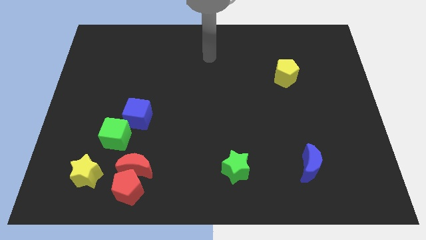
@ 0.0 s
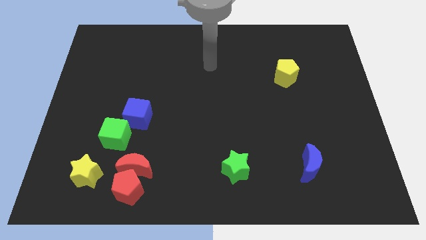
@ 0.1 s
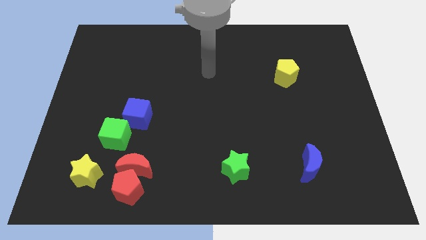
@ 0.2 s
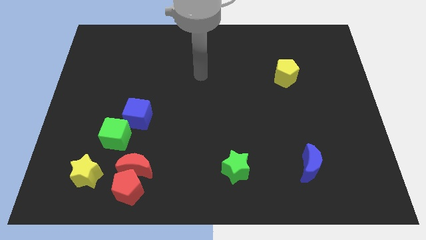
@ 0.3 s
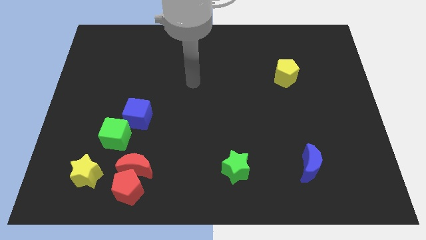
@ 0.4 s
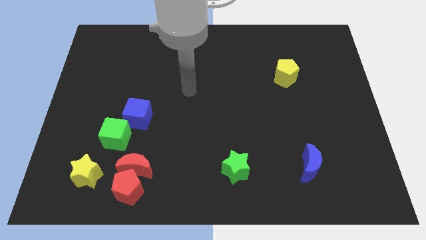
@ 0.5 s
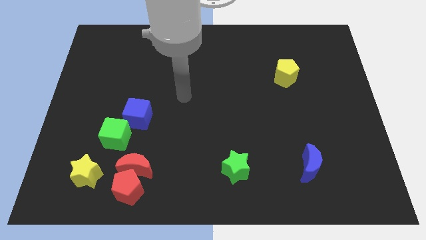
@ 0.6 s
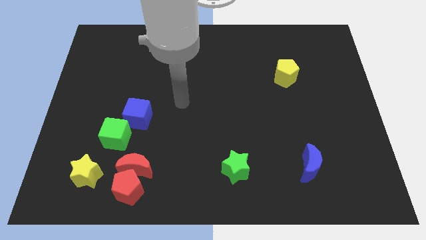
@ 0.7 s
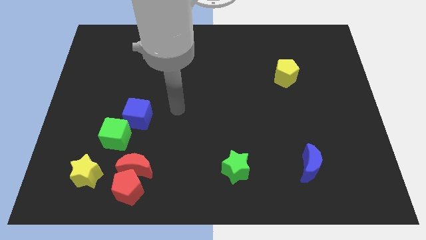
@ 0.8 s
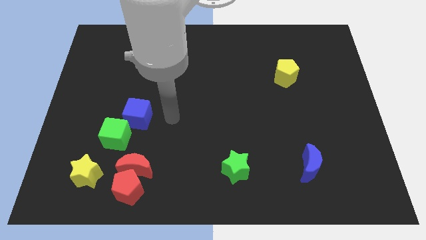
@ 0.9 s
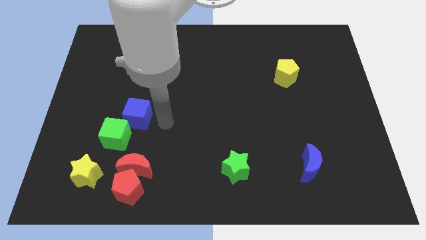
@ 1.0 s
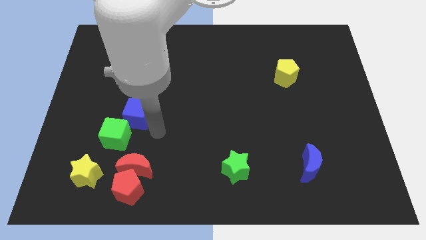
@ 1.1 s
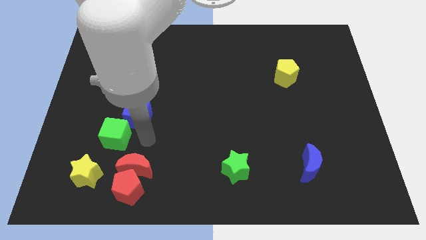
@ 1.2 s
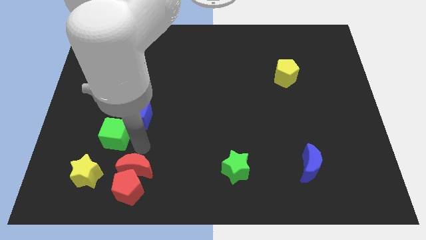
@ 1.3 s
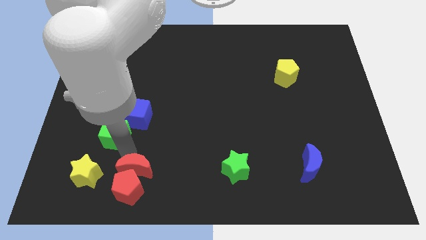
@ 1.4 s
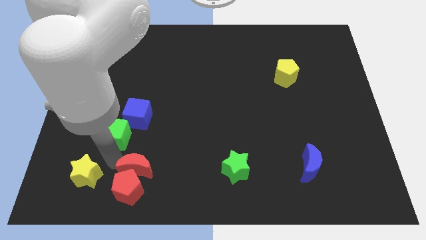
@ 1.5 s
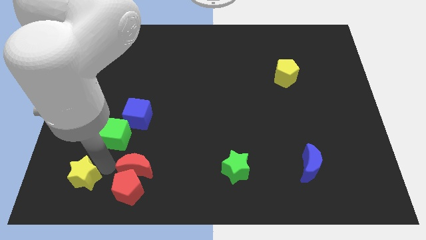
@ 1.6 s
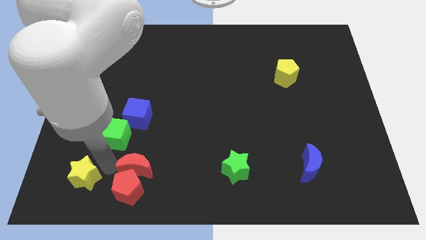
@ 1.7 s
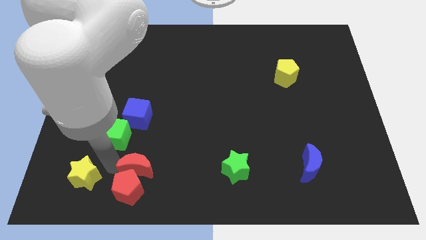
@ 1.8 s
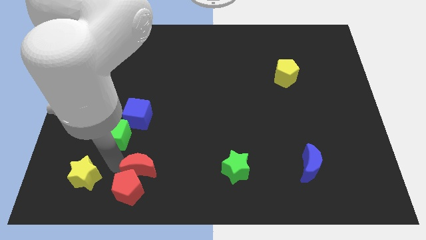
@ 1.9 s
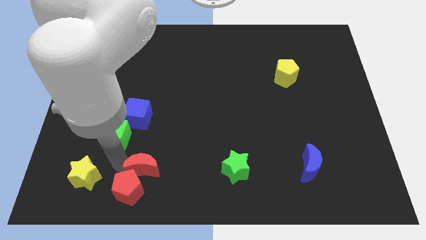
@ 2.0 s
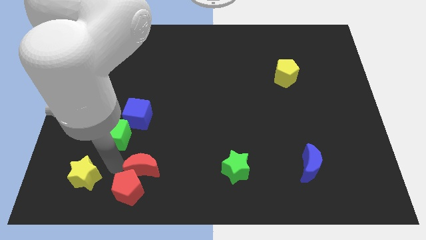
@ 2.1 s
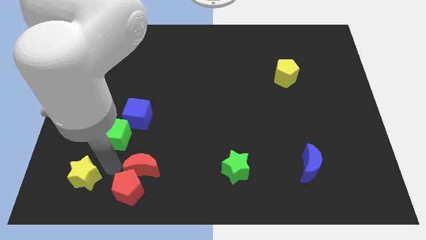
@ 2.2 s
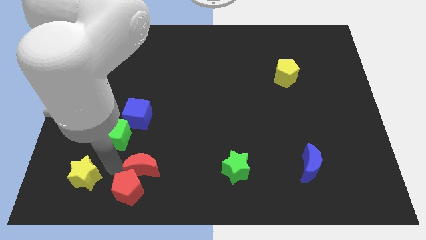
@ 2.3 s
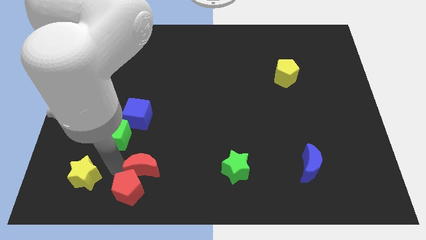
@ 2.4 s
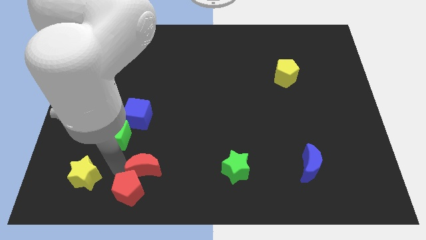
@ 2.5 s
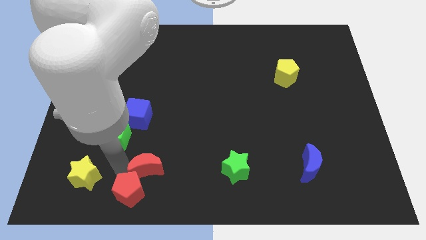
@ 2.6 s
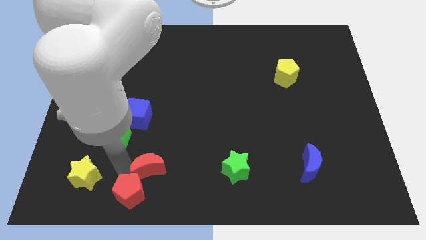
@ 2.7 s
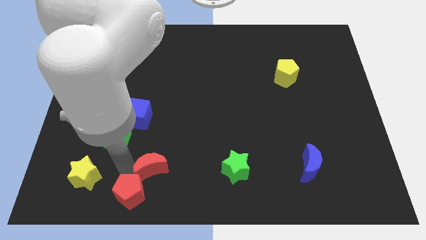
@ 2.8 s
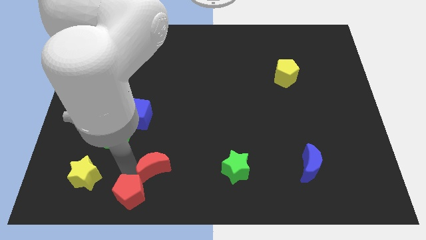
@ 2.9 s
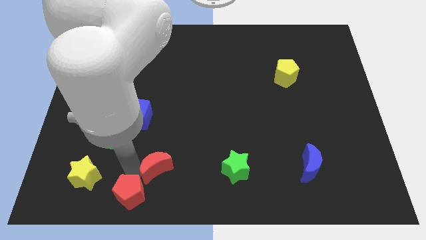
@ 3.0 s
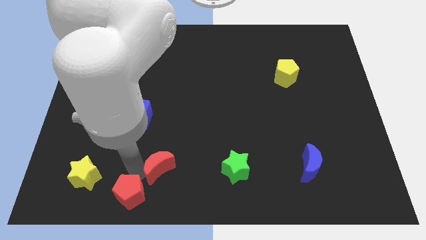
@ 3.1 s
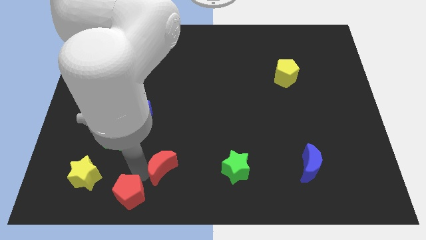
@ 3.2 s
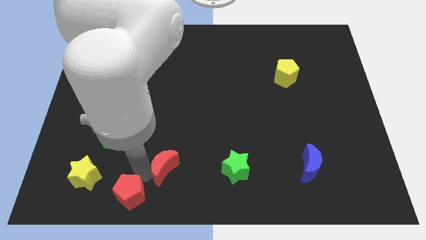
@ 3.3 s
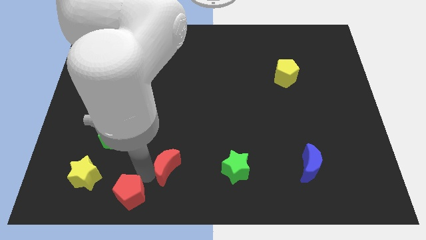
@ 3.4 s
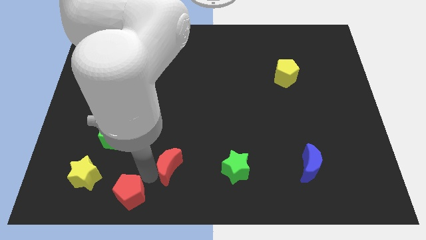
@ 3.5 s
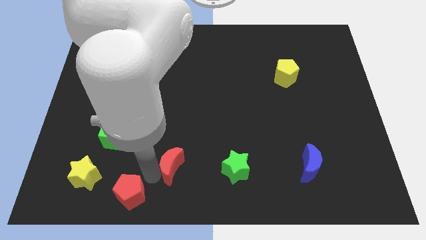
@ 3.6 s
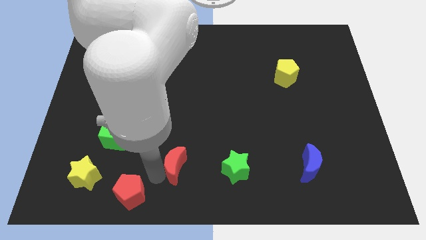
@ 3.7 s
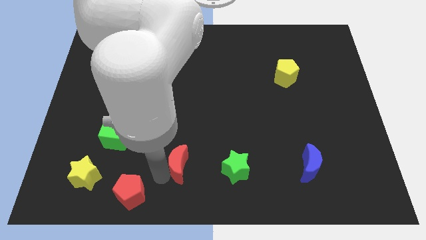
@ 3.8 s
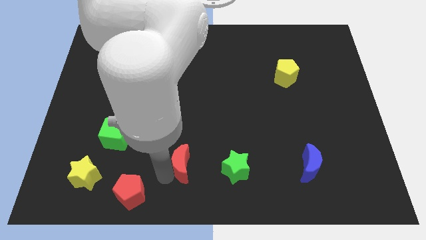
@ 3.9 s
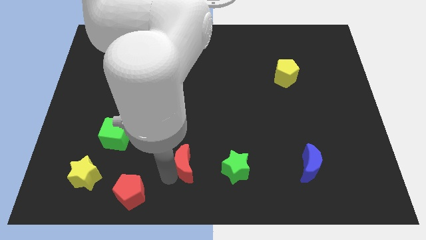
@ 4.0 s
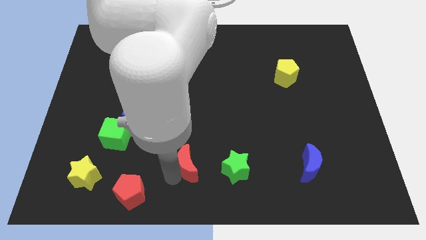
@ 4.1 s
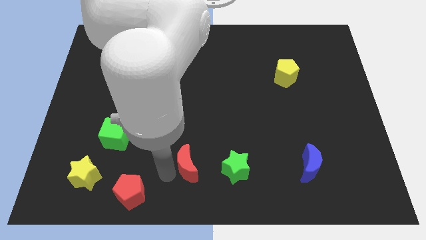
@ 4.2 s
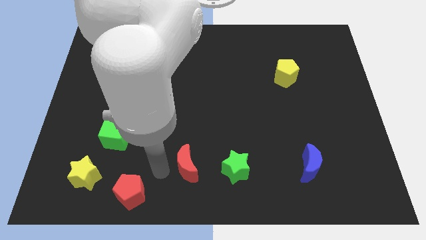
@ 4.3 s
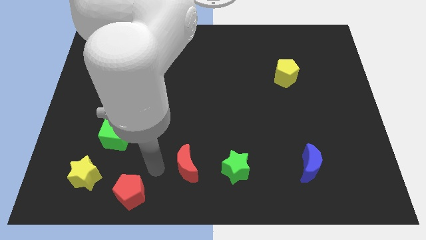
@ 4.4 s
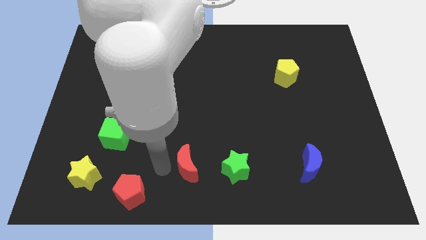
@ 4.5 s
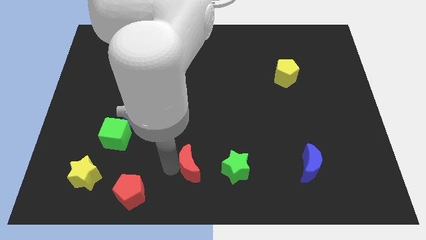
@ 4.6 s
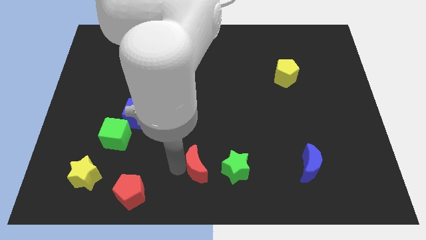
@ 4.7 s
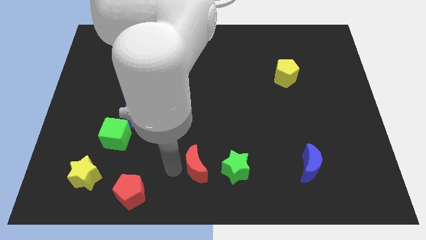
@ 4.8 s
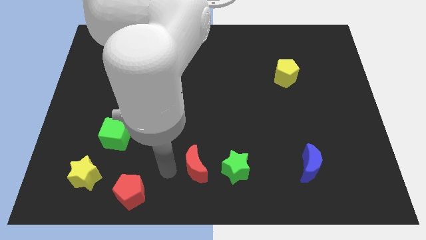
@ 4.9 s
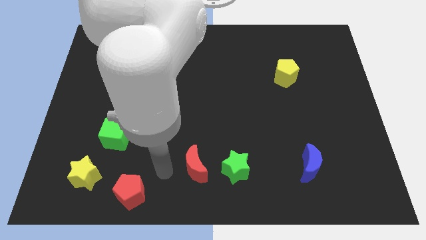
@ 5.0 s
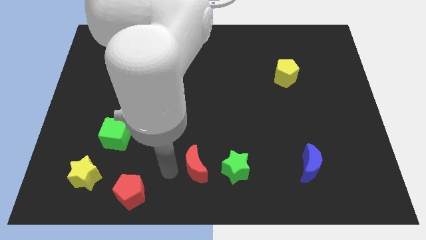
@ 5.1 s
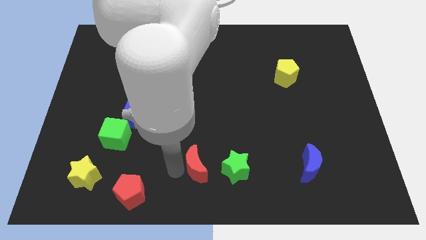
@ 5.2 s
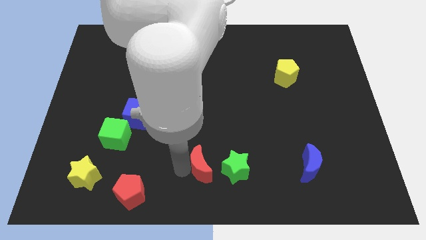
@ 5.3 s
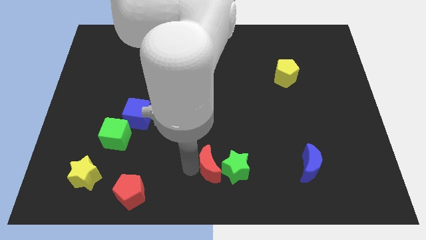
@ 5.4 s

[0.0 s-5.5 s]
put the red moon towards the green star
